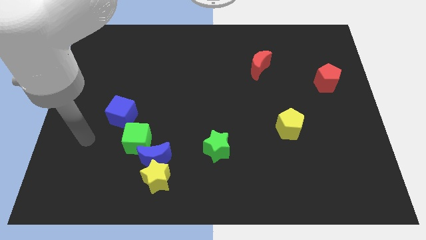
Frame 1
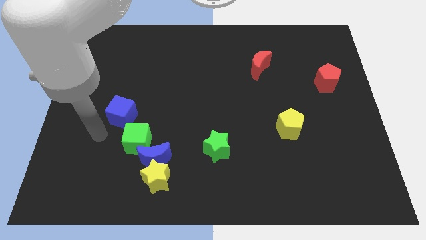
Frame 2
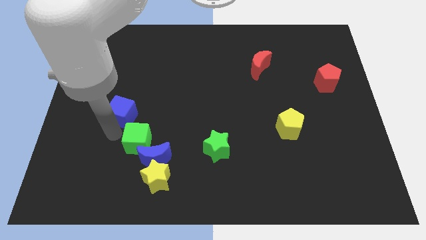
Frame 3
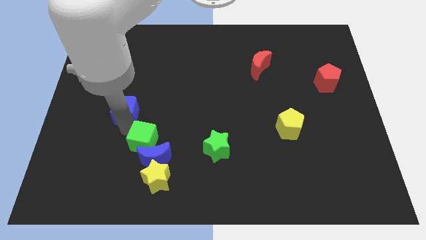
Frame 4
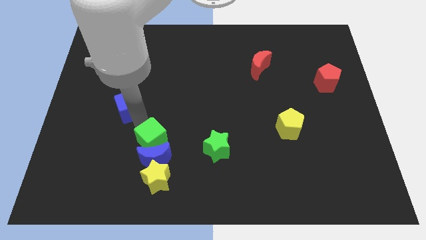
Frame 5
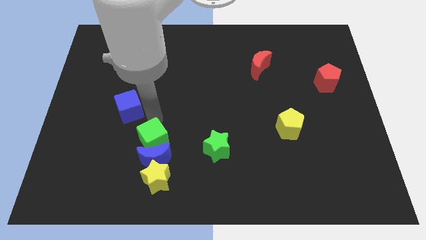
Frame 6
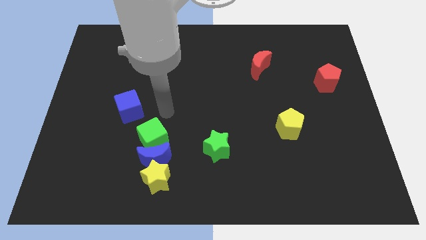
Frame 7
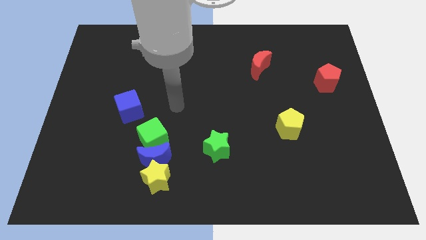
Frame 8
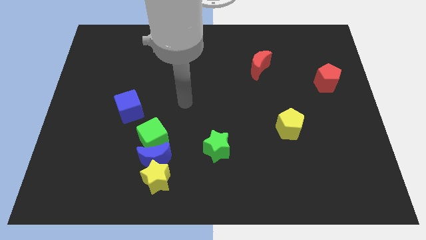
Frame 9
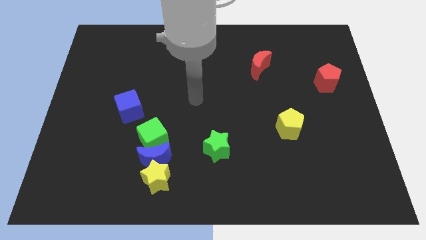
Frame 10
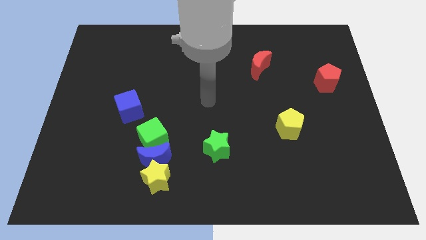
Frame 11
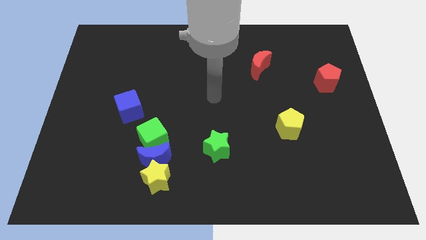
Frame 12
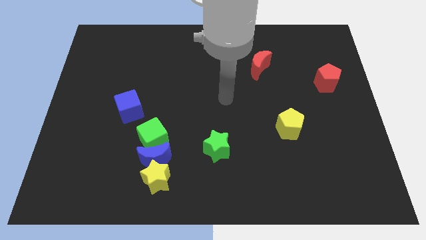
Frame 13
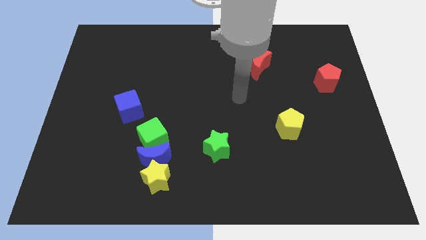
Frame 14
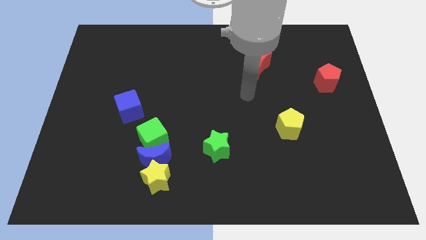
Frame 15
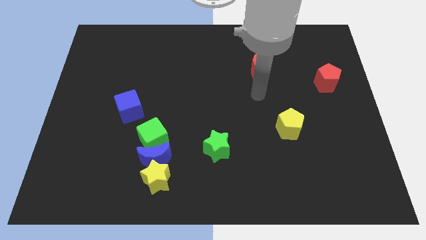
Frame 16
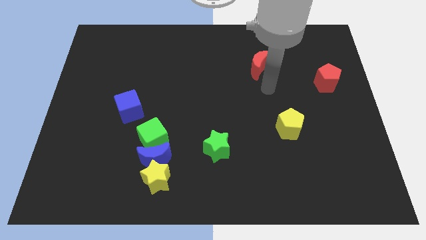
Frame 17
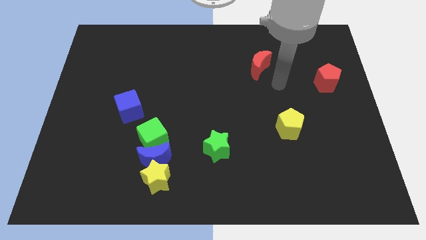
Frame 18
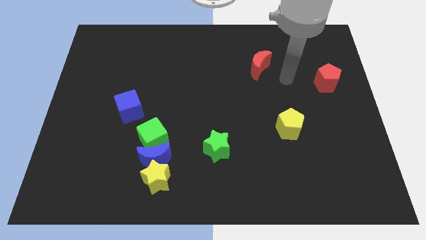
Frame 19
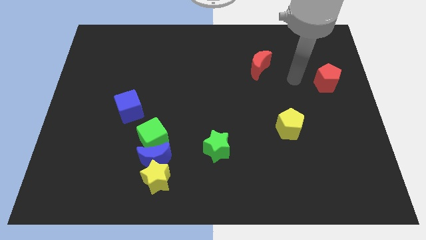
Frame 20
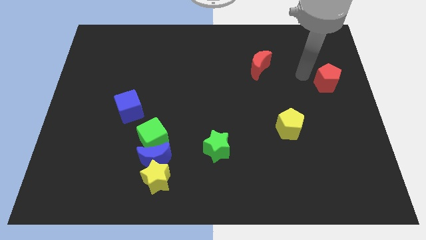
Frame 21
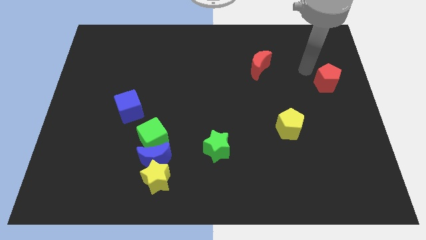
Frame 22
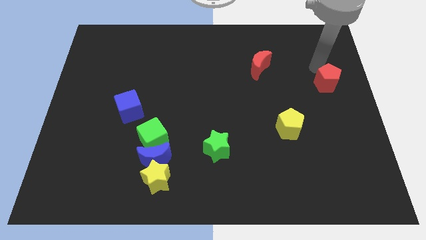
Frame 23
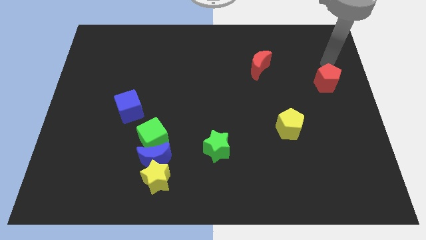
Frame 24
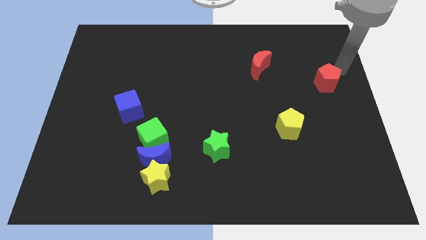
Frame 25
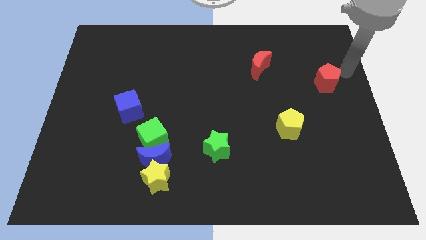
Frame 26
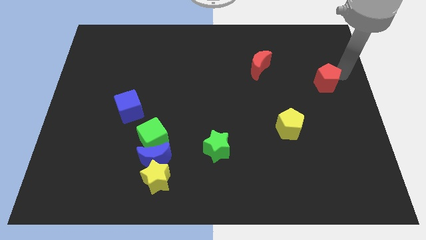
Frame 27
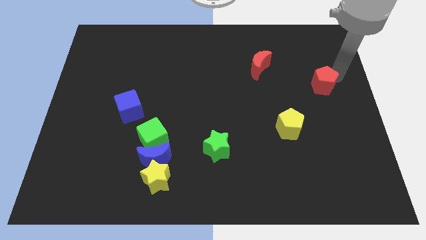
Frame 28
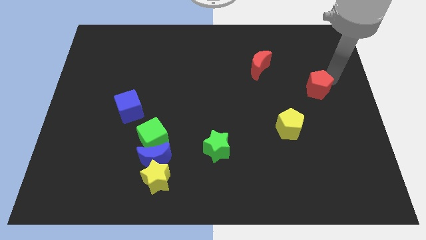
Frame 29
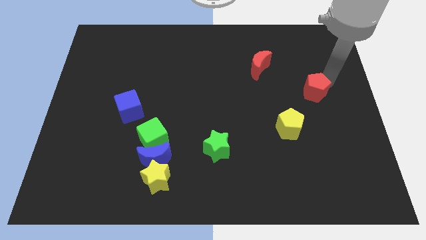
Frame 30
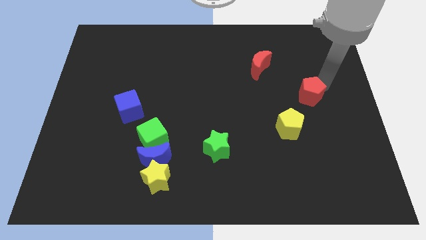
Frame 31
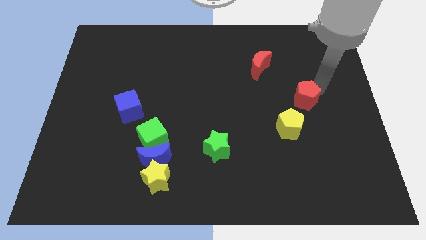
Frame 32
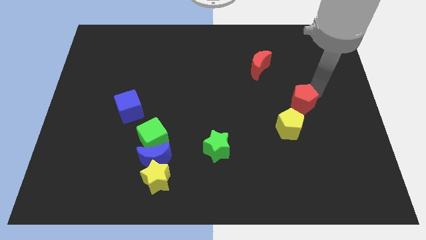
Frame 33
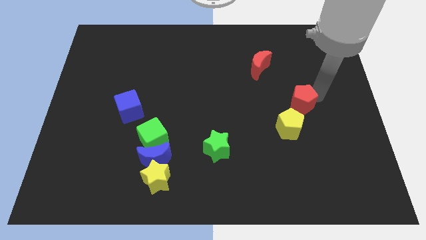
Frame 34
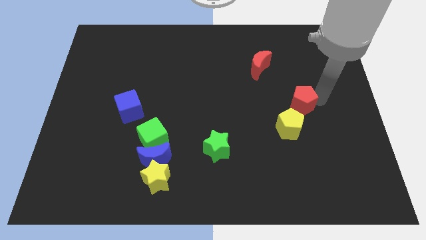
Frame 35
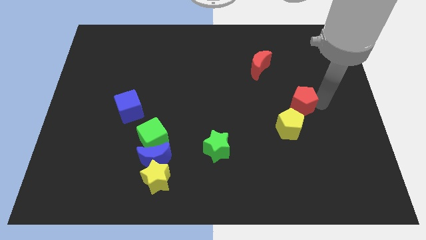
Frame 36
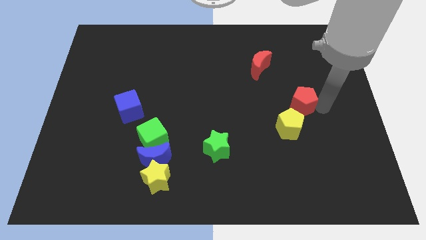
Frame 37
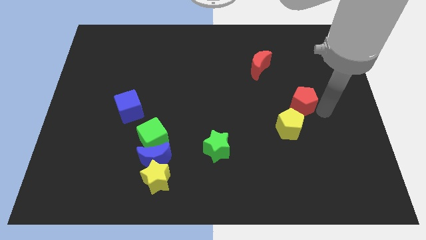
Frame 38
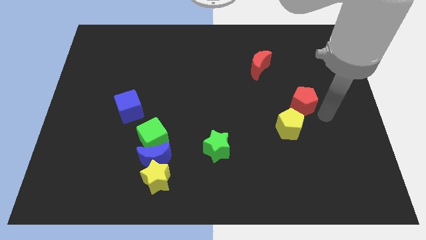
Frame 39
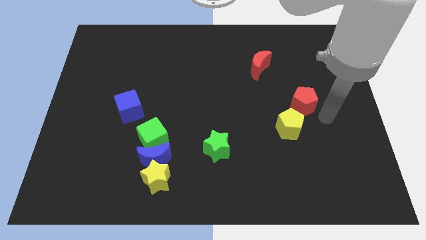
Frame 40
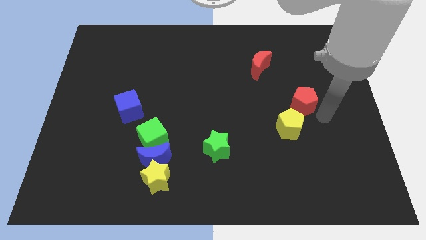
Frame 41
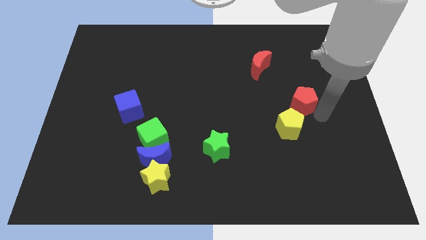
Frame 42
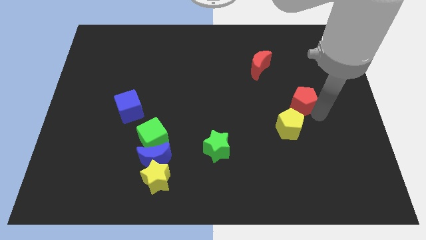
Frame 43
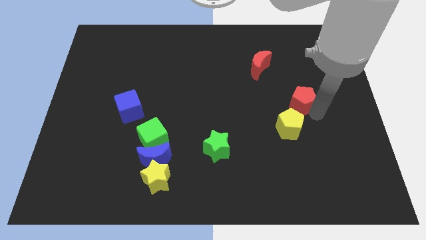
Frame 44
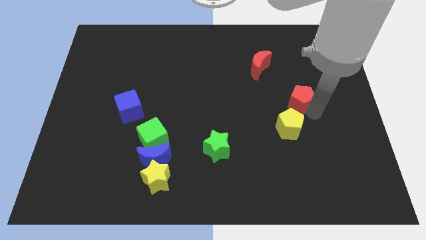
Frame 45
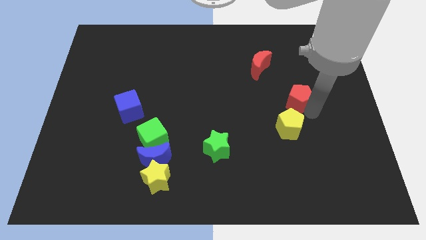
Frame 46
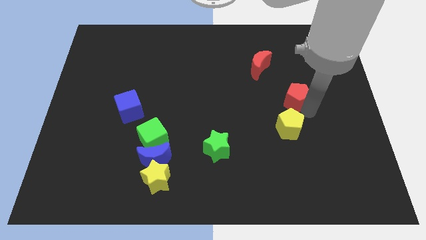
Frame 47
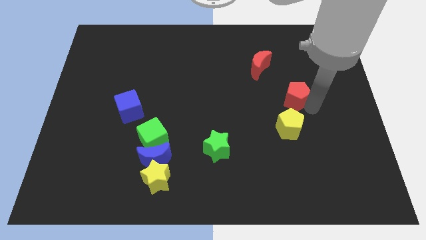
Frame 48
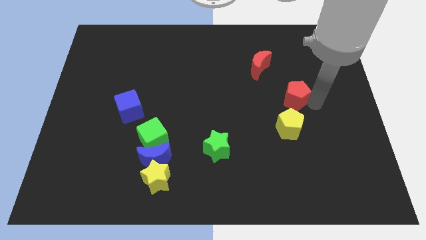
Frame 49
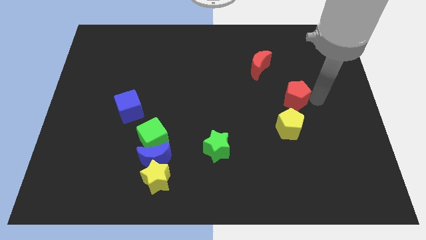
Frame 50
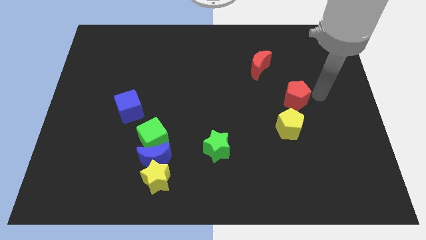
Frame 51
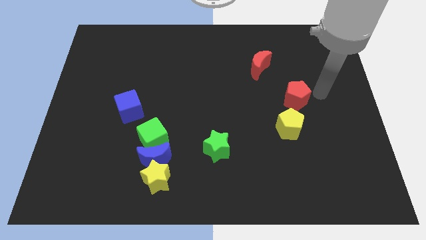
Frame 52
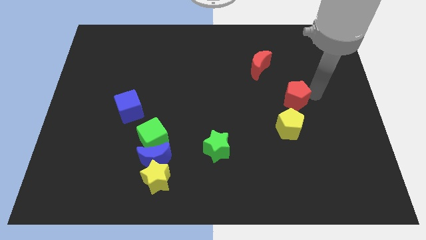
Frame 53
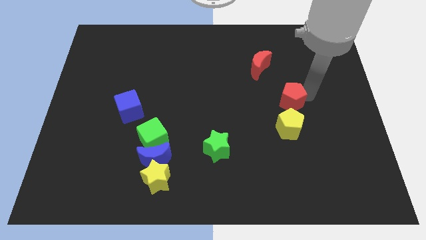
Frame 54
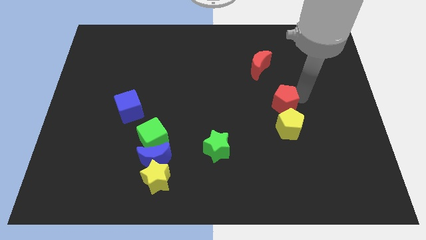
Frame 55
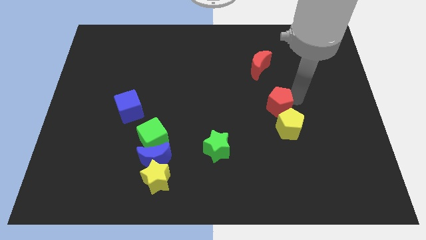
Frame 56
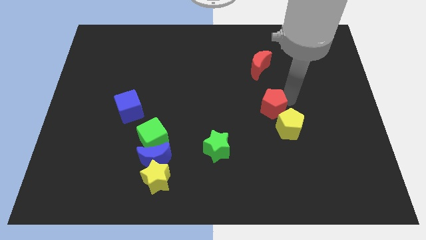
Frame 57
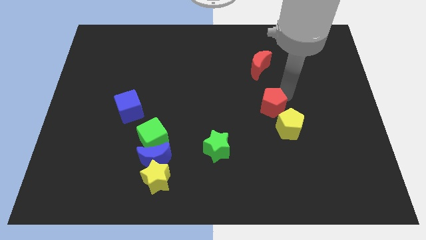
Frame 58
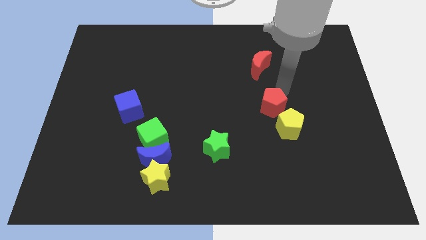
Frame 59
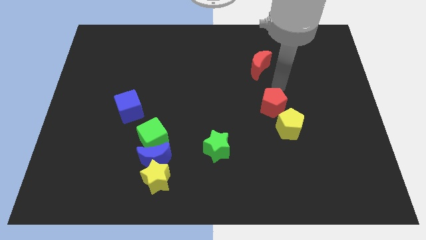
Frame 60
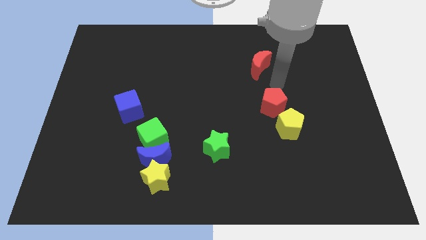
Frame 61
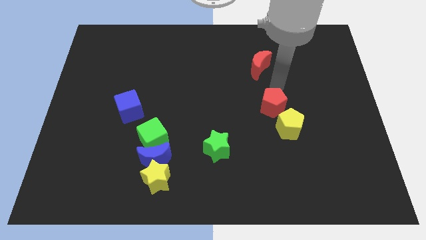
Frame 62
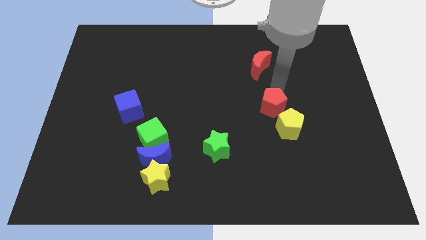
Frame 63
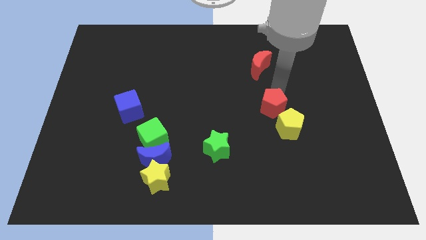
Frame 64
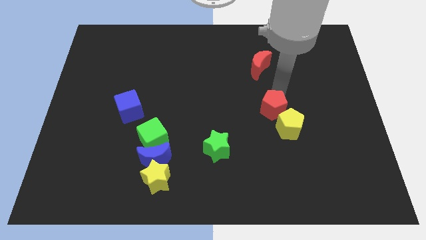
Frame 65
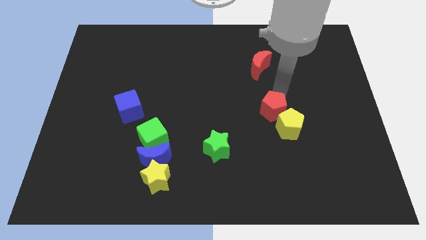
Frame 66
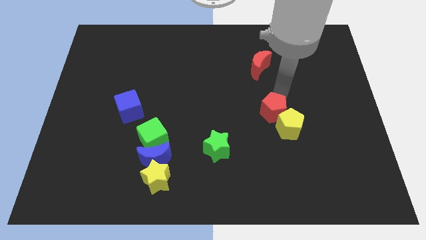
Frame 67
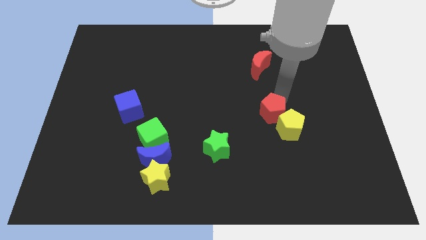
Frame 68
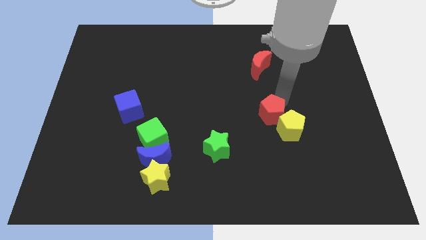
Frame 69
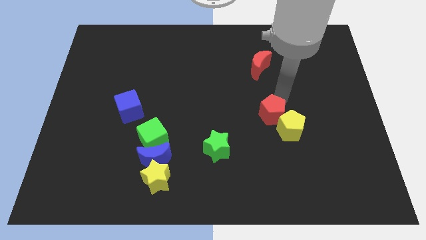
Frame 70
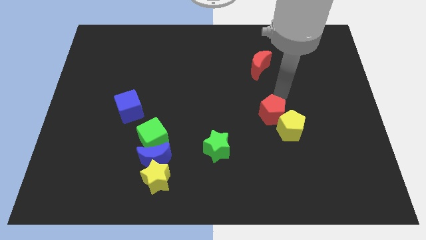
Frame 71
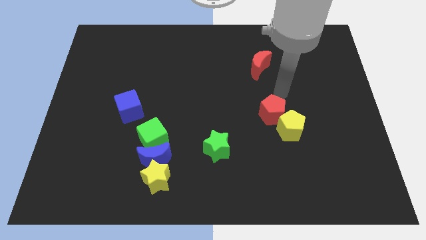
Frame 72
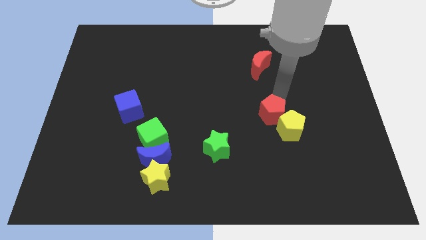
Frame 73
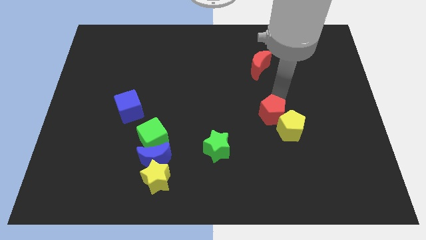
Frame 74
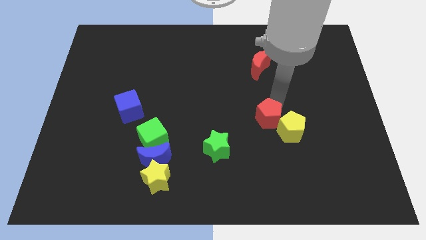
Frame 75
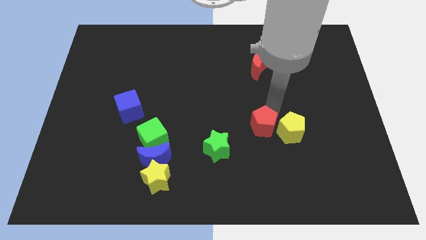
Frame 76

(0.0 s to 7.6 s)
push the red pentagon downwards and left diagonally

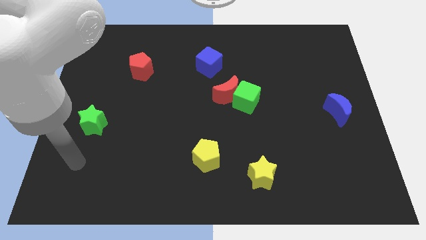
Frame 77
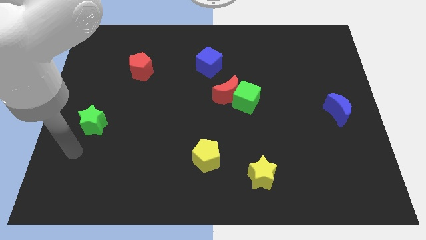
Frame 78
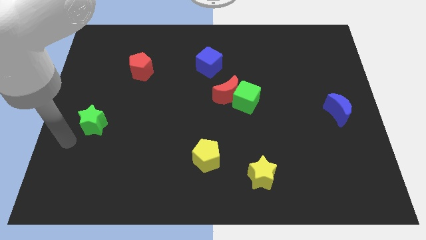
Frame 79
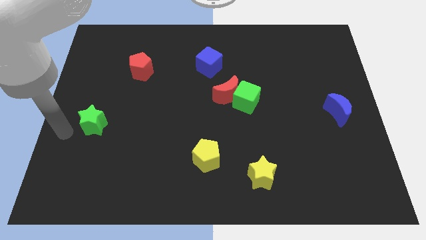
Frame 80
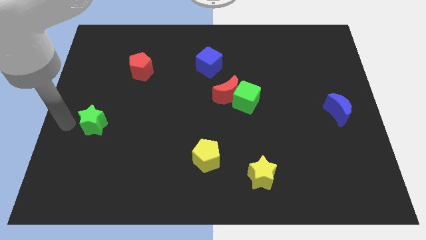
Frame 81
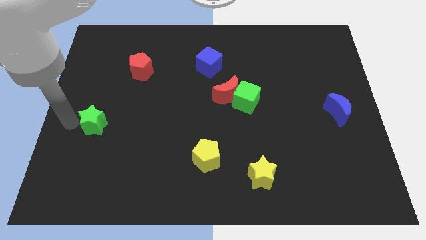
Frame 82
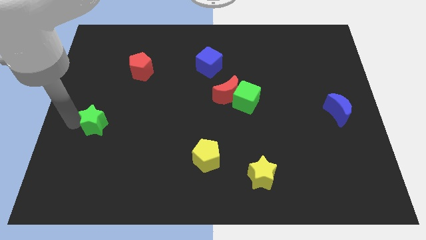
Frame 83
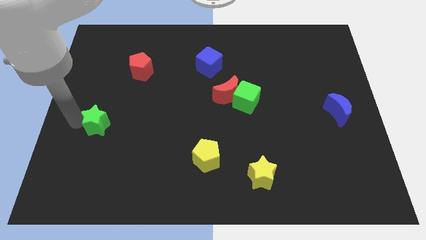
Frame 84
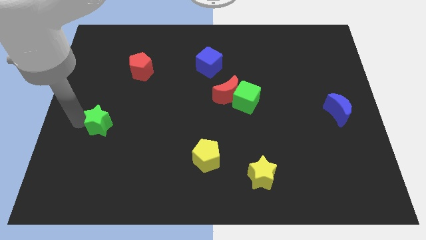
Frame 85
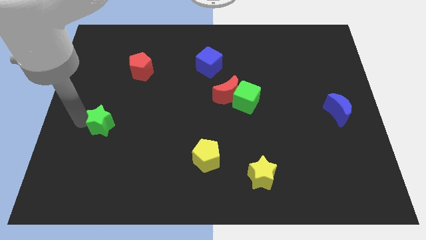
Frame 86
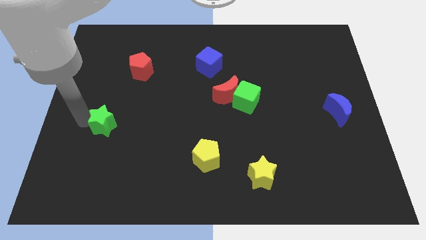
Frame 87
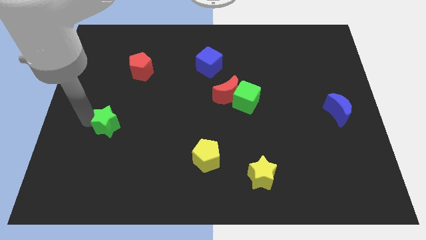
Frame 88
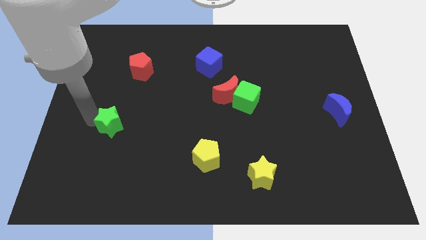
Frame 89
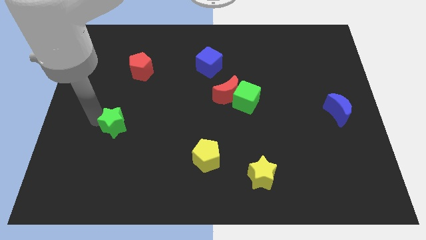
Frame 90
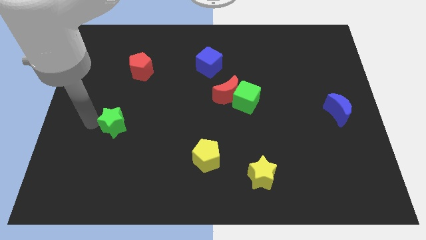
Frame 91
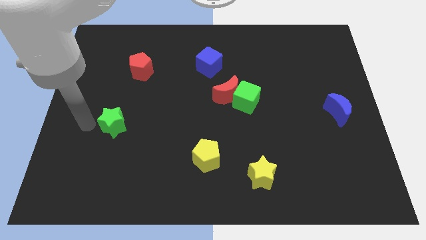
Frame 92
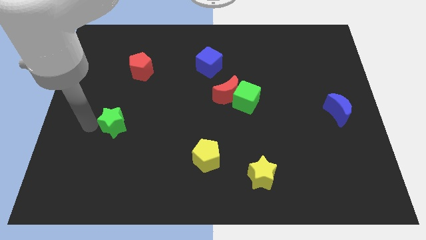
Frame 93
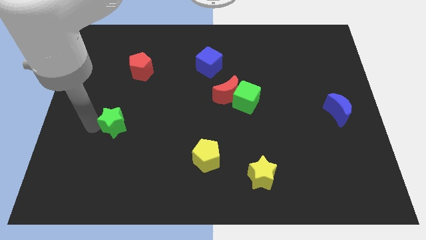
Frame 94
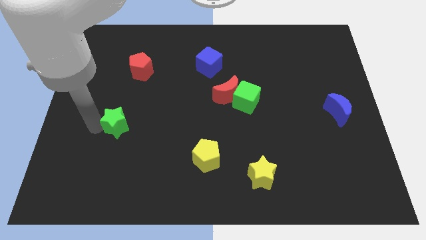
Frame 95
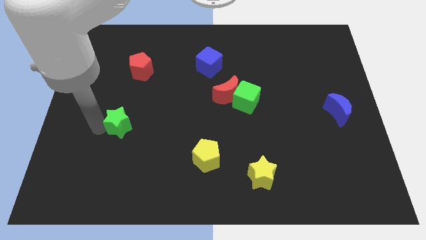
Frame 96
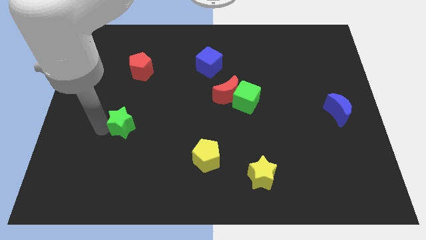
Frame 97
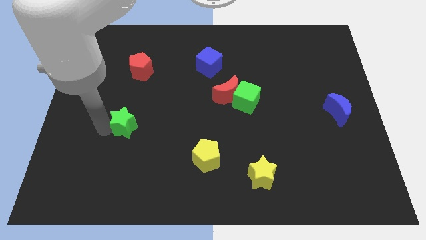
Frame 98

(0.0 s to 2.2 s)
push the green star to the right a little
